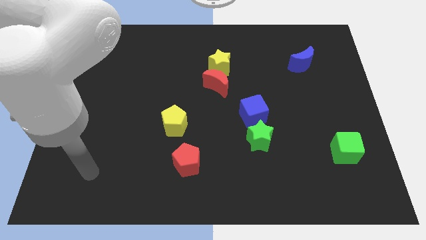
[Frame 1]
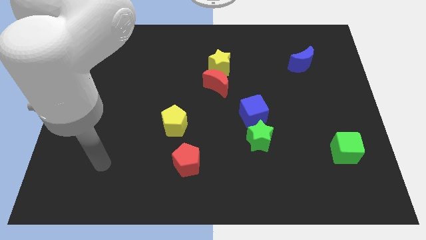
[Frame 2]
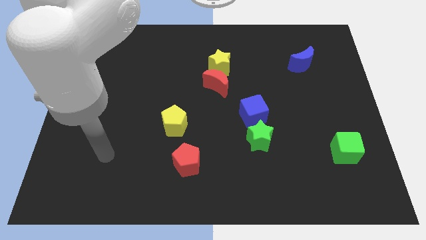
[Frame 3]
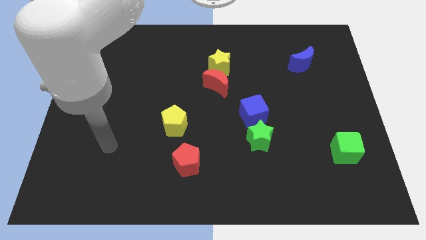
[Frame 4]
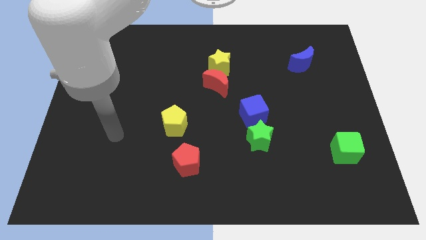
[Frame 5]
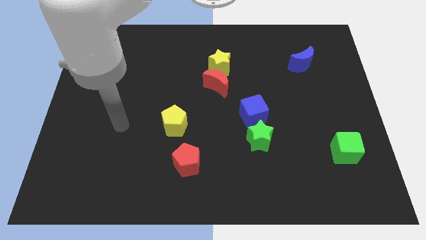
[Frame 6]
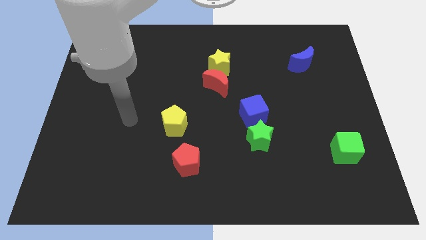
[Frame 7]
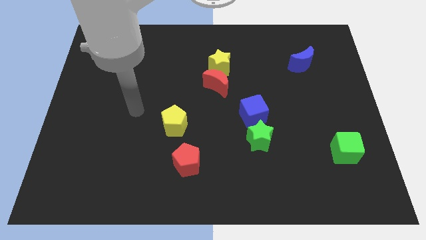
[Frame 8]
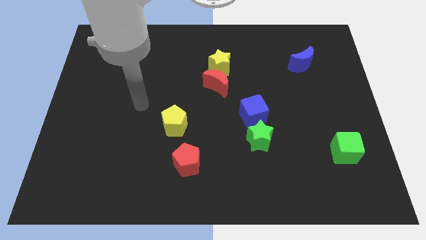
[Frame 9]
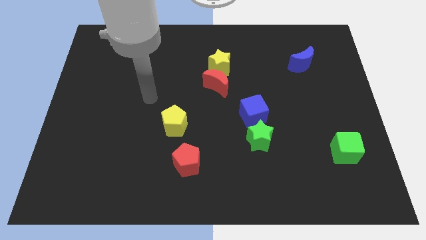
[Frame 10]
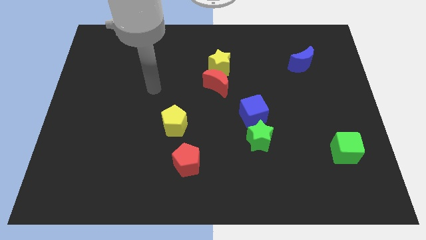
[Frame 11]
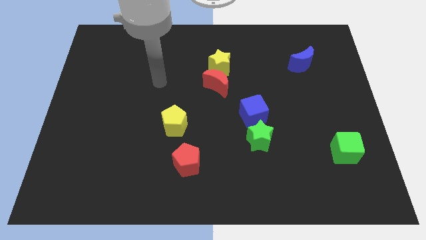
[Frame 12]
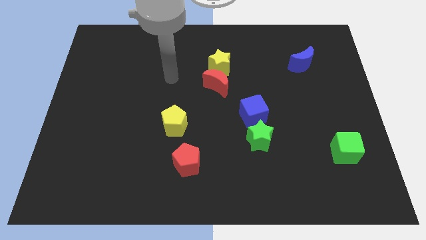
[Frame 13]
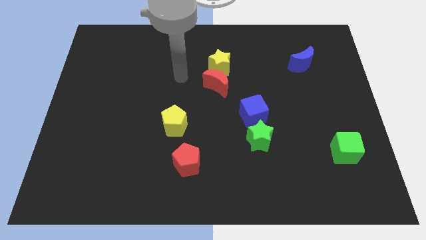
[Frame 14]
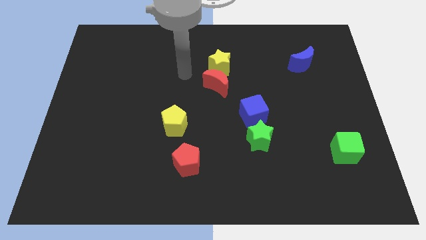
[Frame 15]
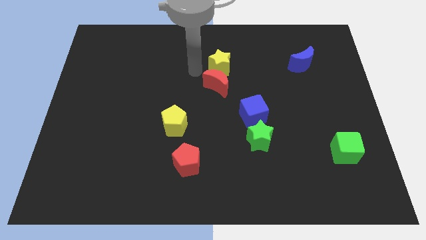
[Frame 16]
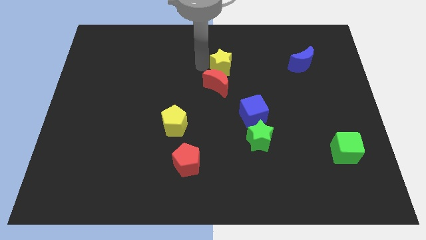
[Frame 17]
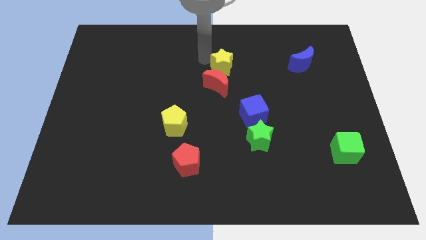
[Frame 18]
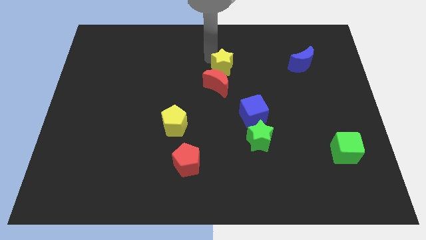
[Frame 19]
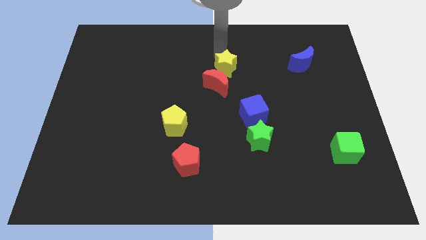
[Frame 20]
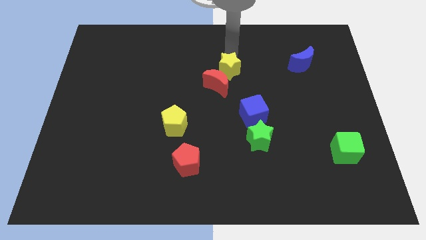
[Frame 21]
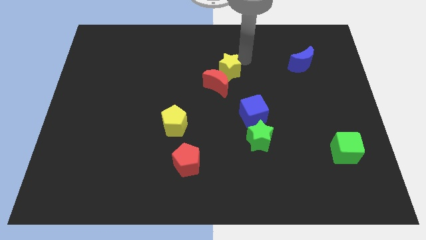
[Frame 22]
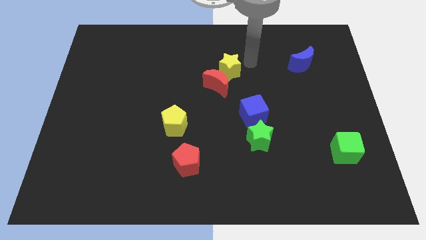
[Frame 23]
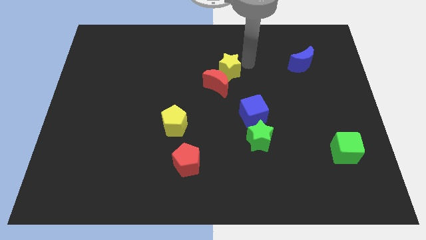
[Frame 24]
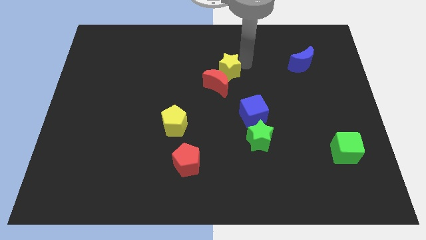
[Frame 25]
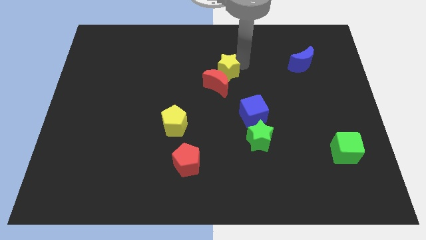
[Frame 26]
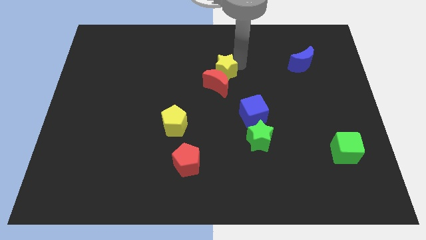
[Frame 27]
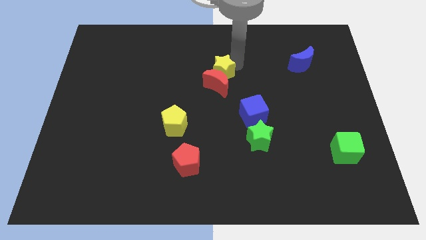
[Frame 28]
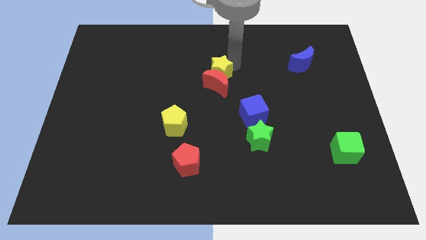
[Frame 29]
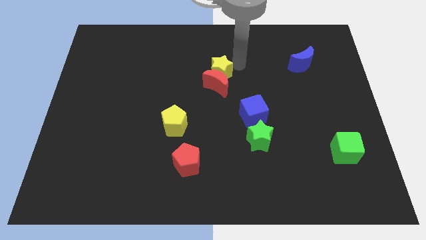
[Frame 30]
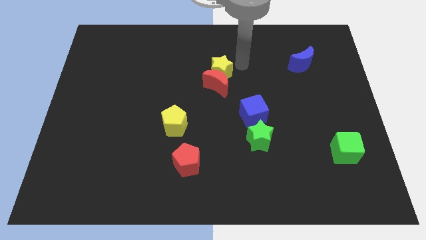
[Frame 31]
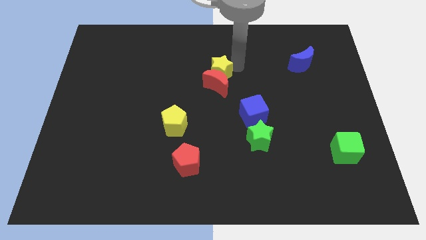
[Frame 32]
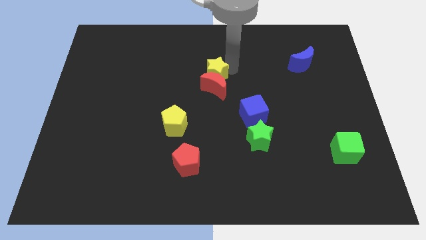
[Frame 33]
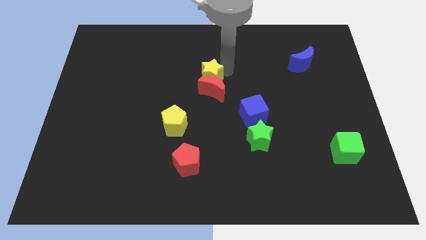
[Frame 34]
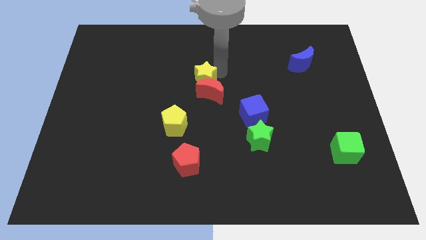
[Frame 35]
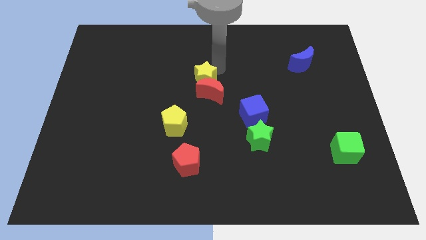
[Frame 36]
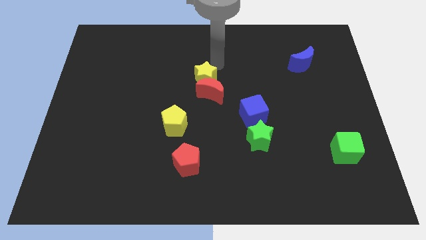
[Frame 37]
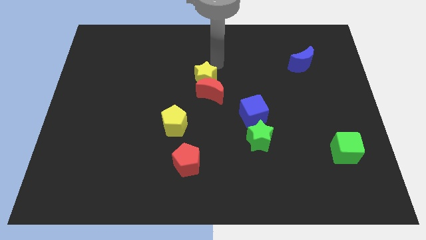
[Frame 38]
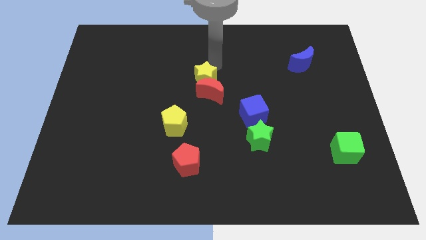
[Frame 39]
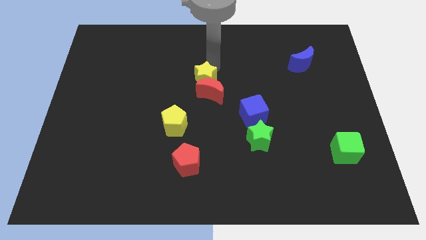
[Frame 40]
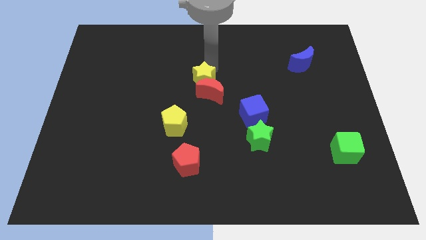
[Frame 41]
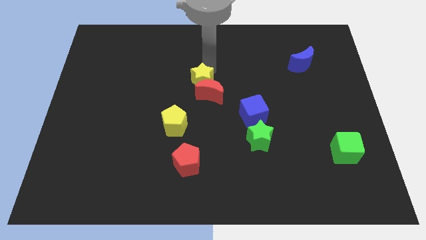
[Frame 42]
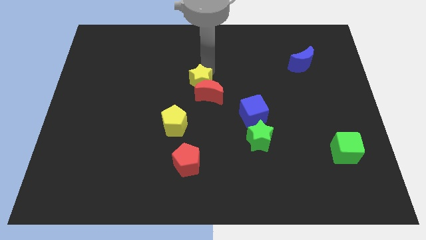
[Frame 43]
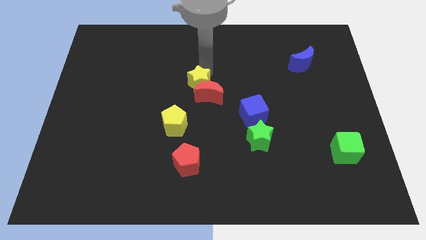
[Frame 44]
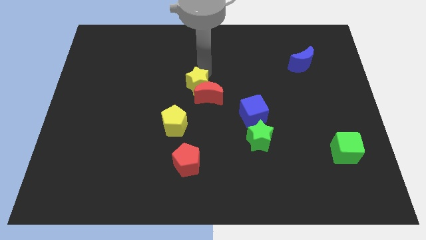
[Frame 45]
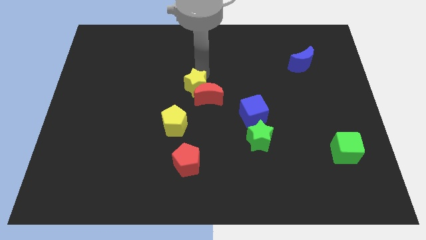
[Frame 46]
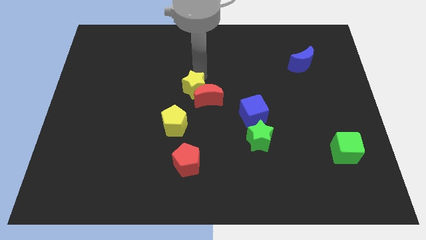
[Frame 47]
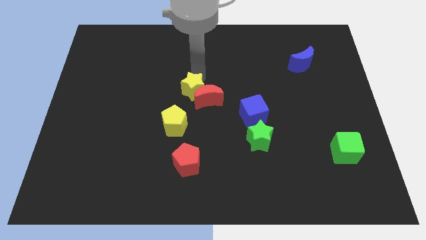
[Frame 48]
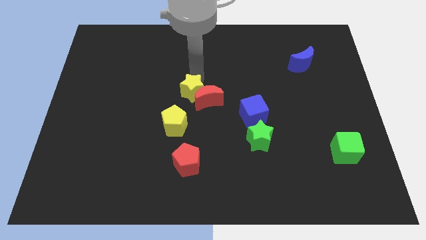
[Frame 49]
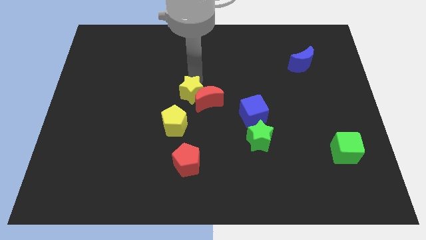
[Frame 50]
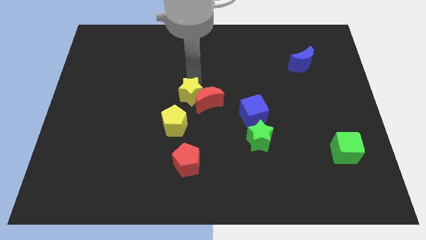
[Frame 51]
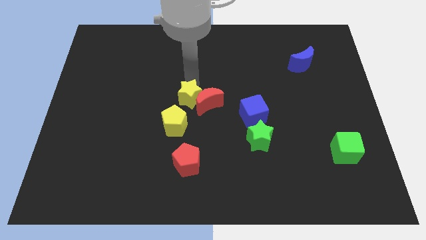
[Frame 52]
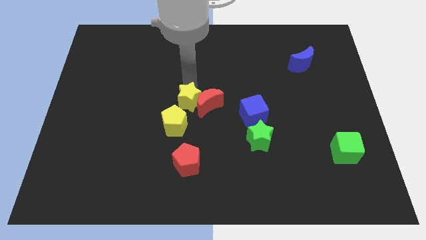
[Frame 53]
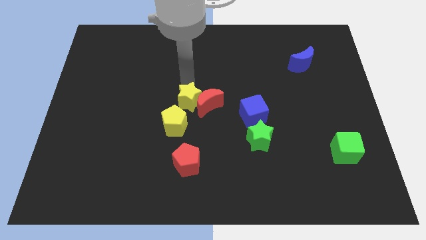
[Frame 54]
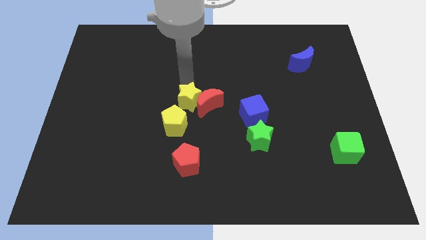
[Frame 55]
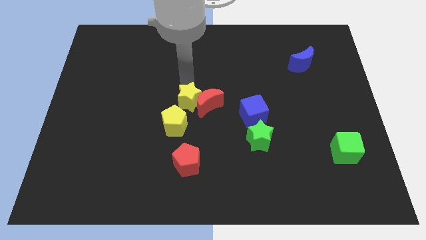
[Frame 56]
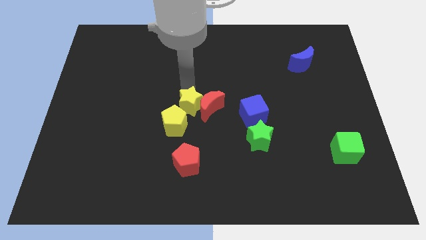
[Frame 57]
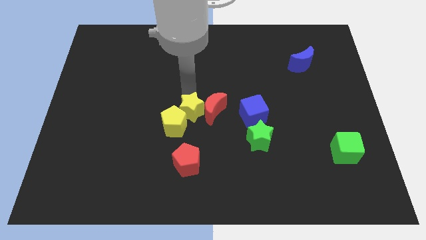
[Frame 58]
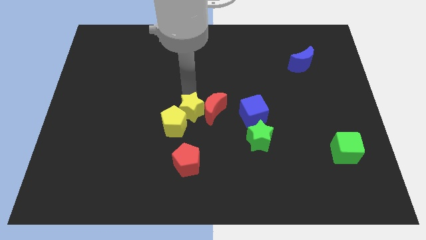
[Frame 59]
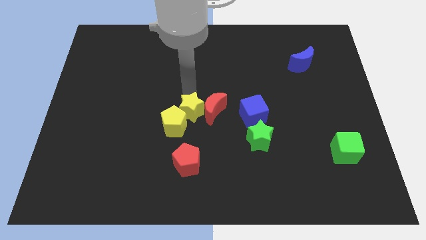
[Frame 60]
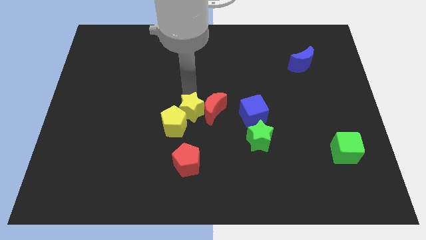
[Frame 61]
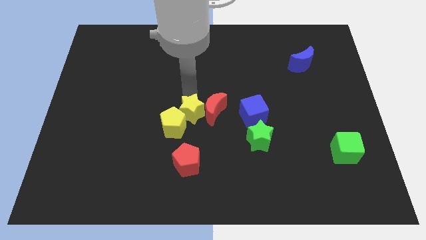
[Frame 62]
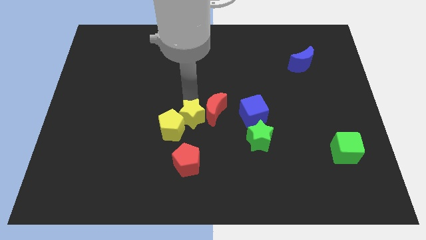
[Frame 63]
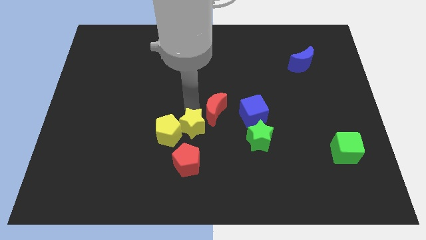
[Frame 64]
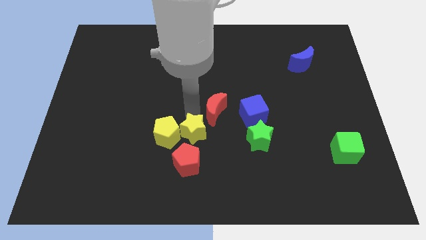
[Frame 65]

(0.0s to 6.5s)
push the yellow star to the bottom right side of the yellow pentagon
